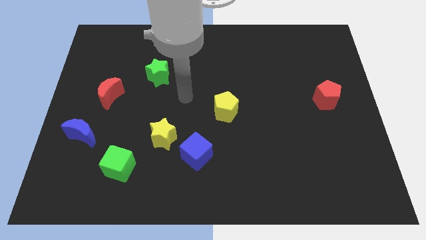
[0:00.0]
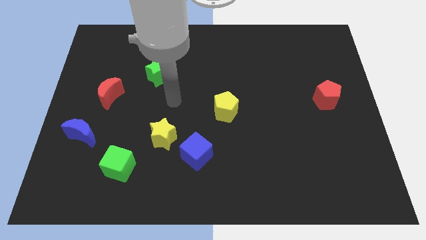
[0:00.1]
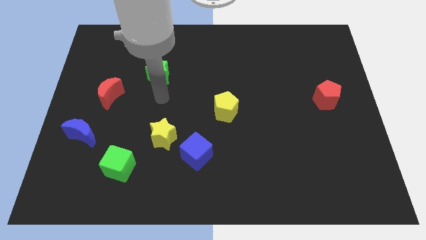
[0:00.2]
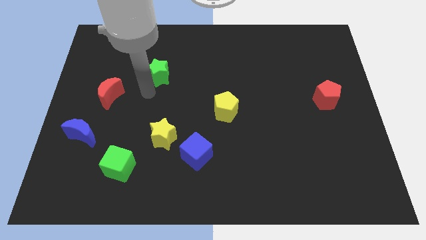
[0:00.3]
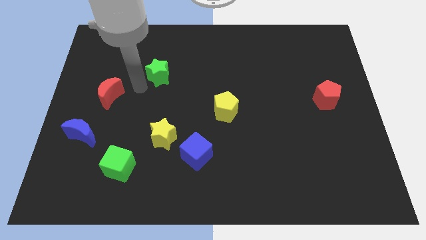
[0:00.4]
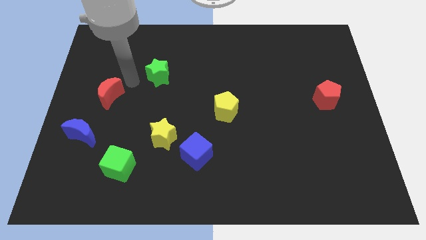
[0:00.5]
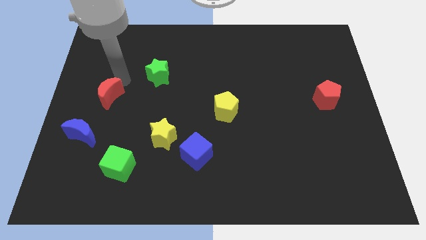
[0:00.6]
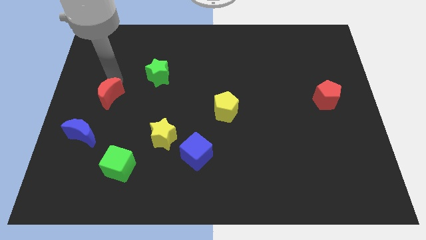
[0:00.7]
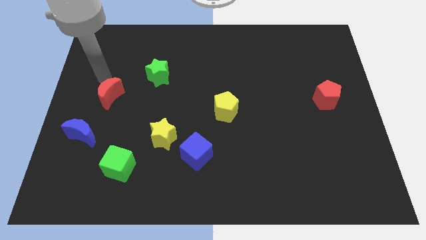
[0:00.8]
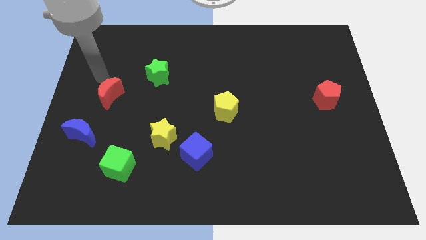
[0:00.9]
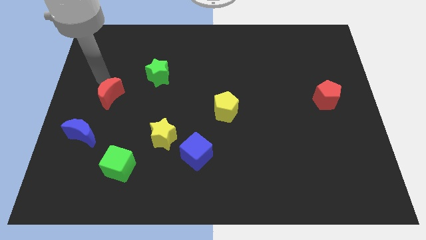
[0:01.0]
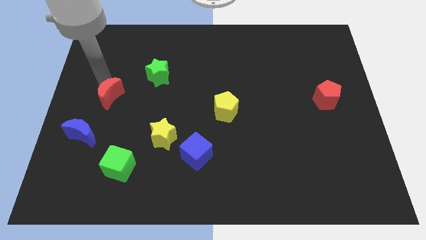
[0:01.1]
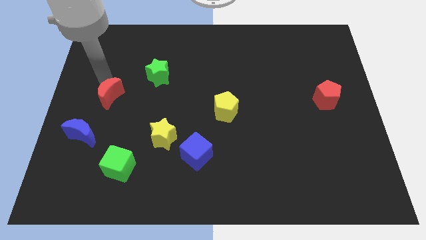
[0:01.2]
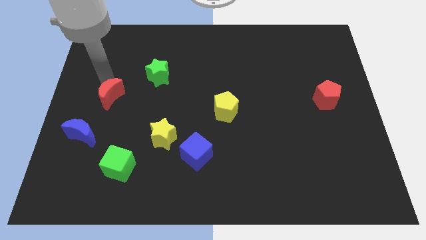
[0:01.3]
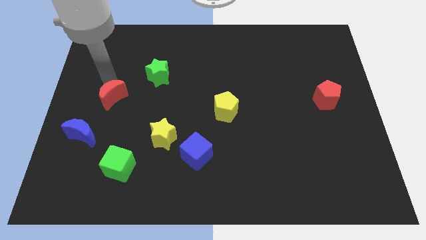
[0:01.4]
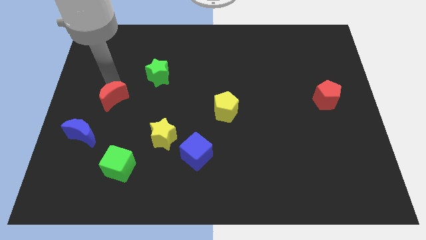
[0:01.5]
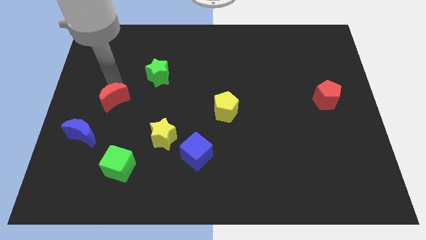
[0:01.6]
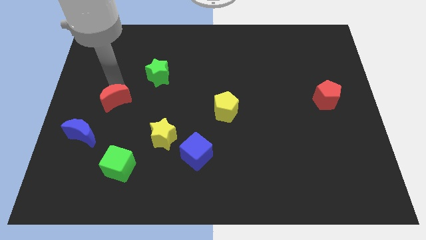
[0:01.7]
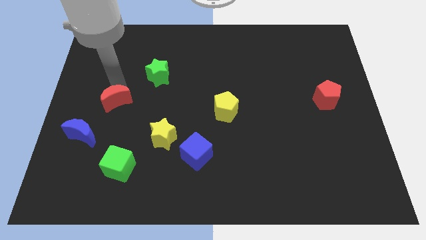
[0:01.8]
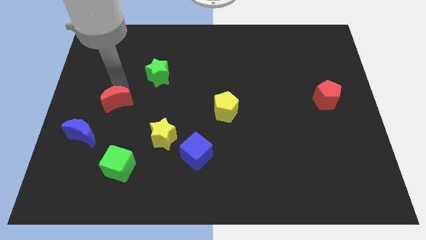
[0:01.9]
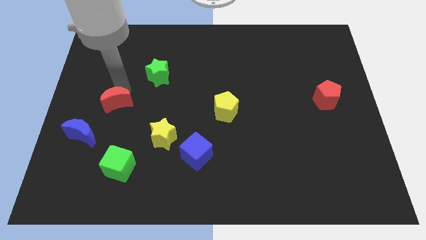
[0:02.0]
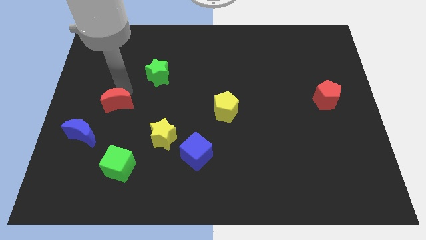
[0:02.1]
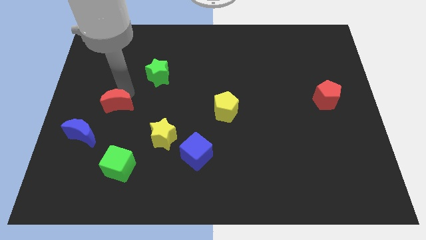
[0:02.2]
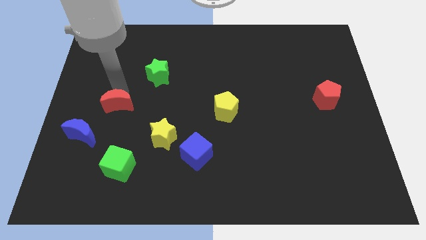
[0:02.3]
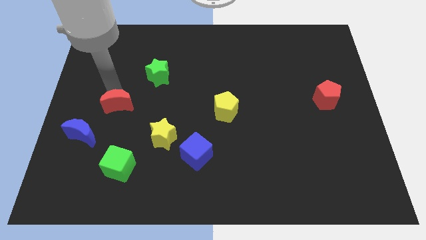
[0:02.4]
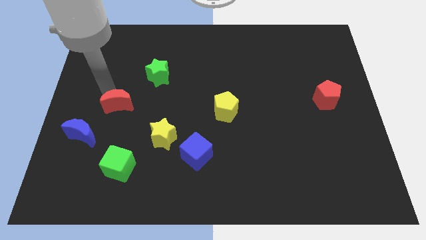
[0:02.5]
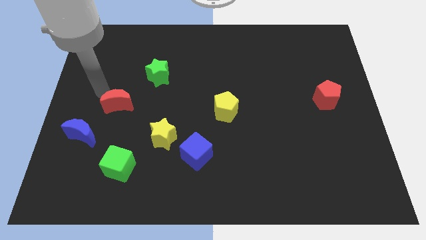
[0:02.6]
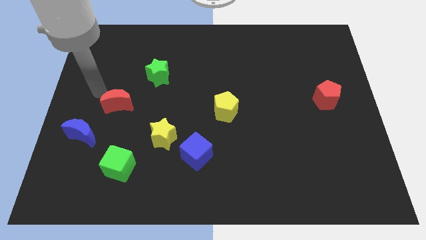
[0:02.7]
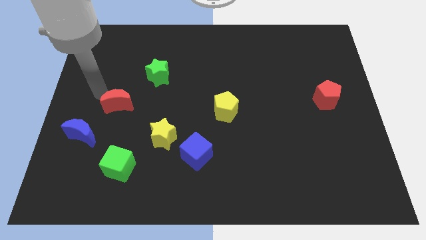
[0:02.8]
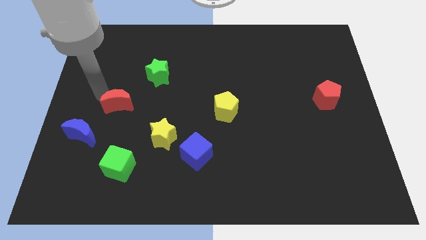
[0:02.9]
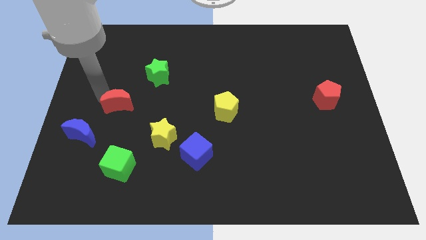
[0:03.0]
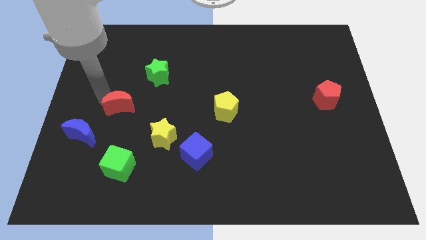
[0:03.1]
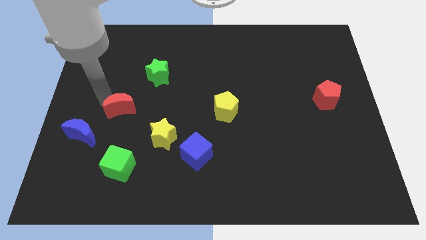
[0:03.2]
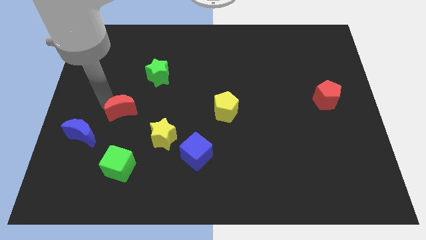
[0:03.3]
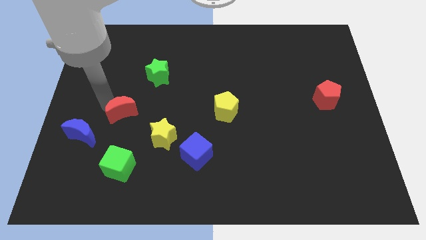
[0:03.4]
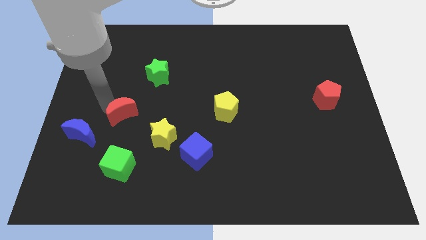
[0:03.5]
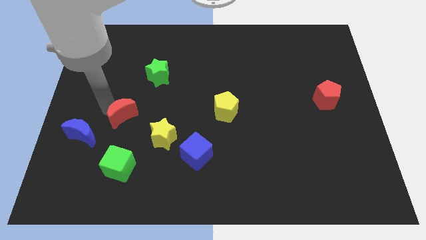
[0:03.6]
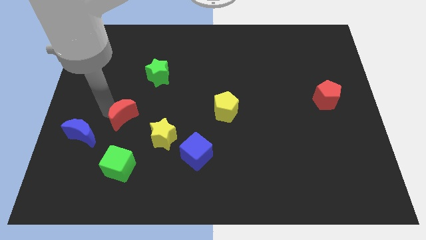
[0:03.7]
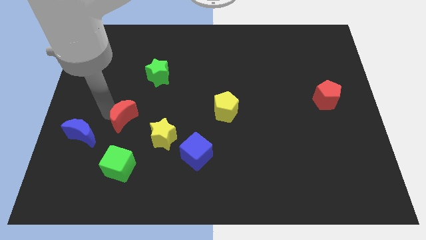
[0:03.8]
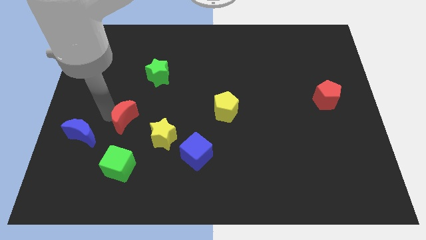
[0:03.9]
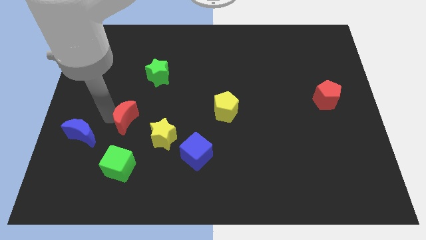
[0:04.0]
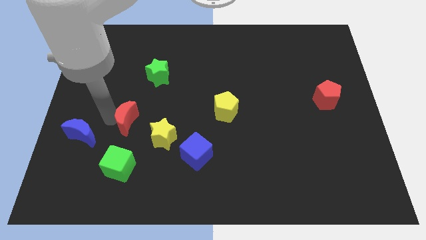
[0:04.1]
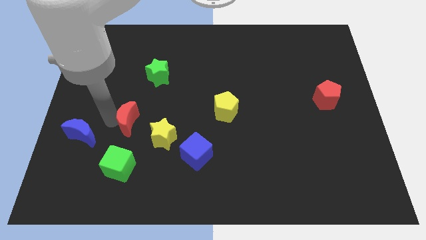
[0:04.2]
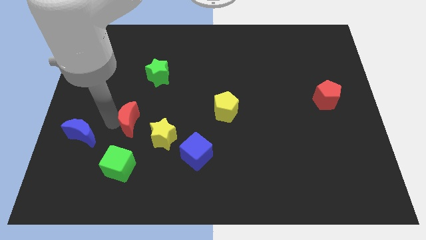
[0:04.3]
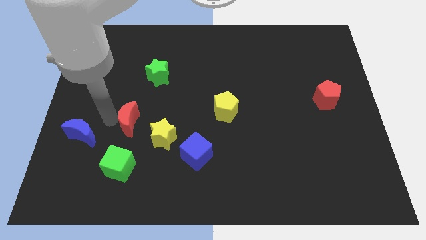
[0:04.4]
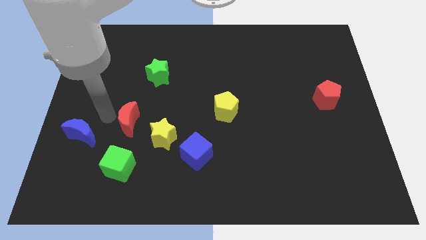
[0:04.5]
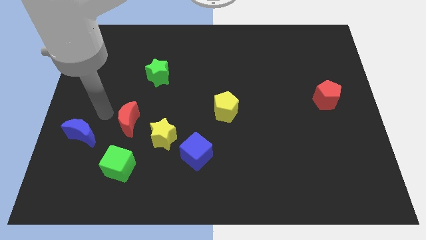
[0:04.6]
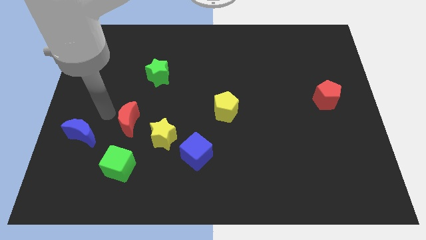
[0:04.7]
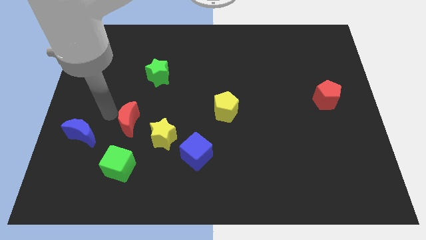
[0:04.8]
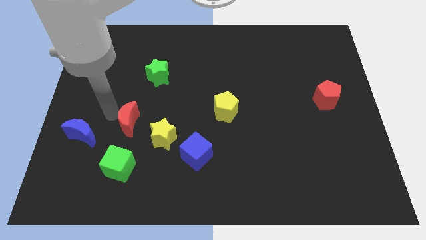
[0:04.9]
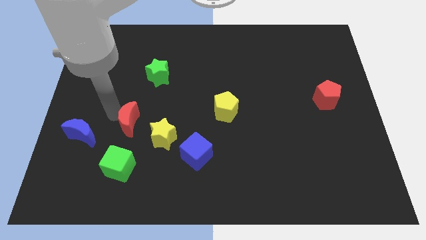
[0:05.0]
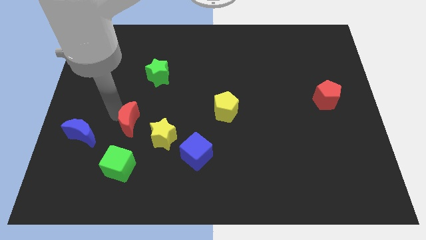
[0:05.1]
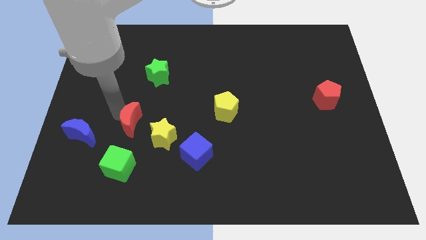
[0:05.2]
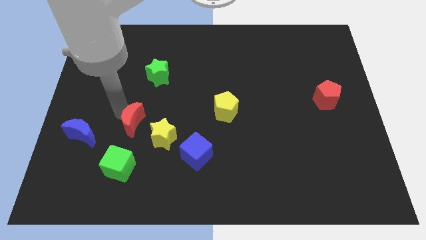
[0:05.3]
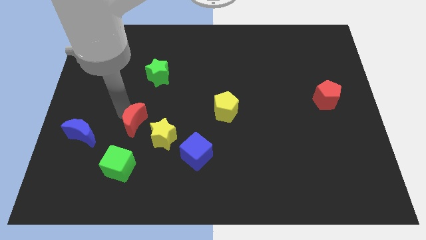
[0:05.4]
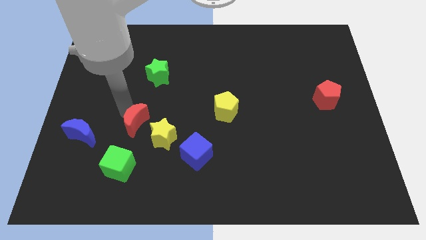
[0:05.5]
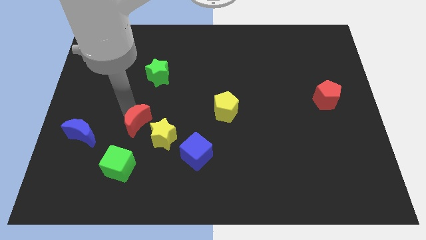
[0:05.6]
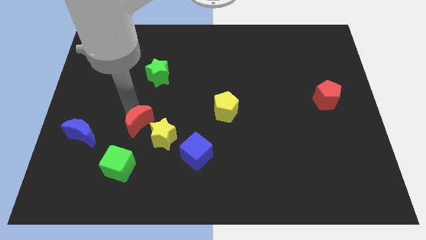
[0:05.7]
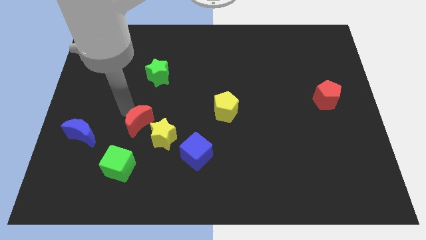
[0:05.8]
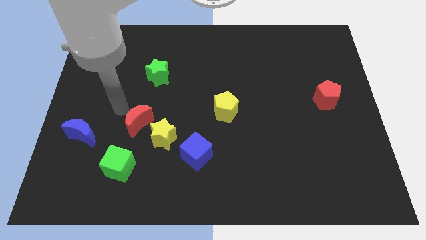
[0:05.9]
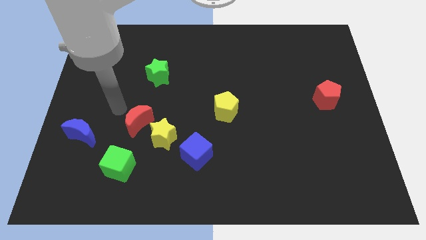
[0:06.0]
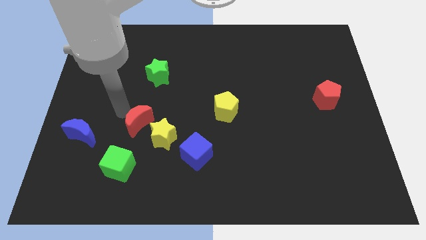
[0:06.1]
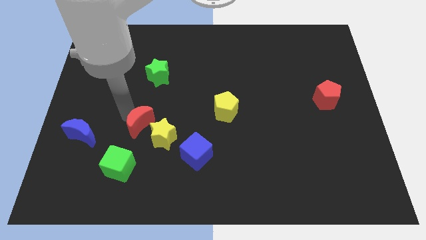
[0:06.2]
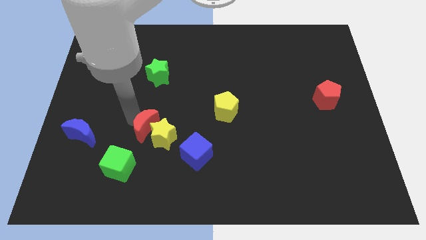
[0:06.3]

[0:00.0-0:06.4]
put the red moon towards the yellow star

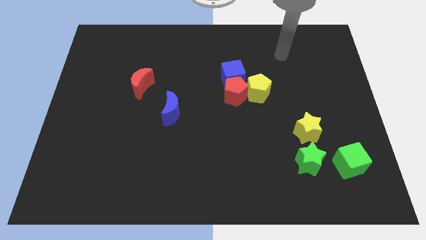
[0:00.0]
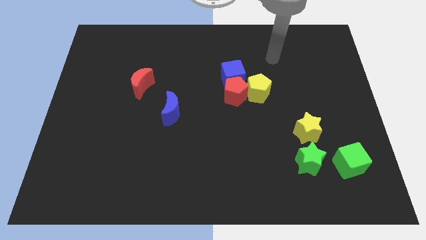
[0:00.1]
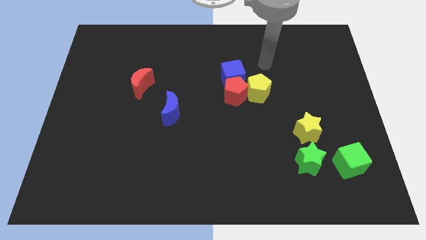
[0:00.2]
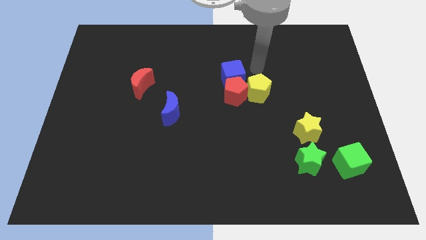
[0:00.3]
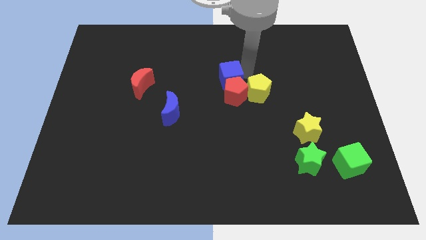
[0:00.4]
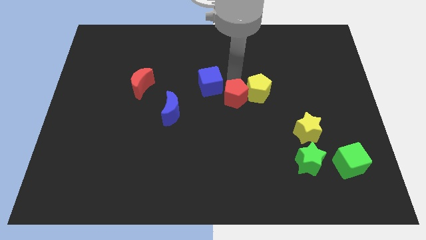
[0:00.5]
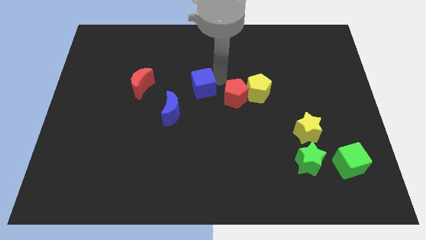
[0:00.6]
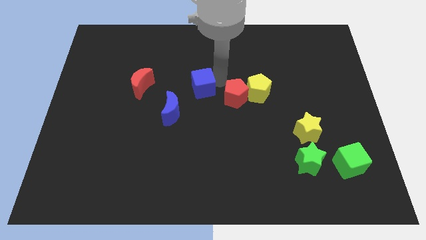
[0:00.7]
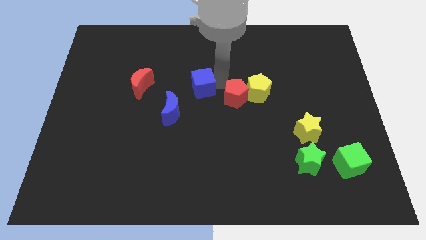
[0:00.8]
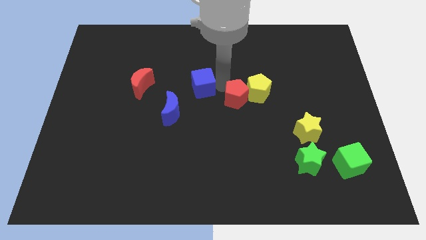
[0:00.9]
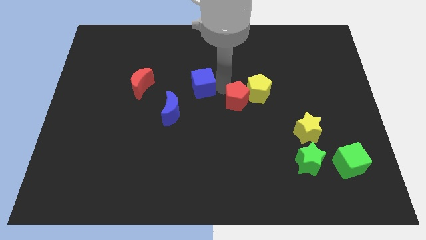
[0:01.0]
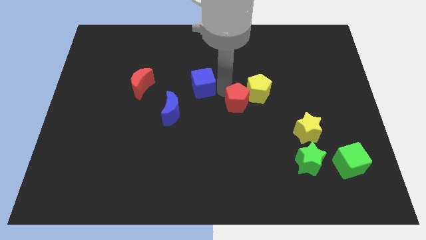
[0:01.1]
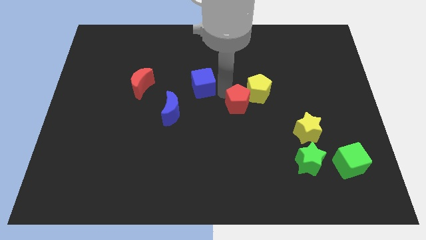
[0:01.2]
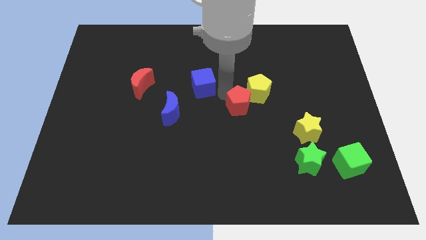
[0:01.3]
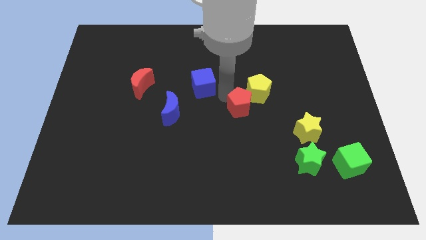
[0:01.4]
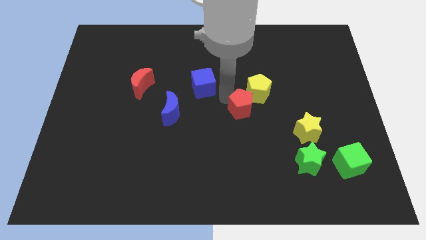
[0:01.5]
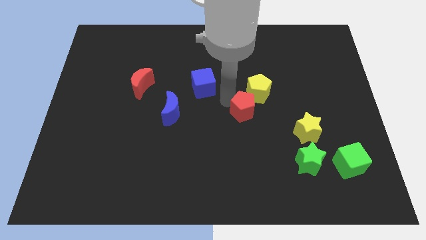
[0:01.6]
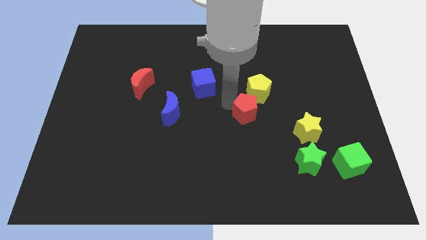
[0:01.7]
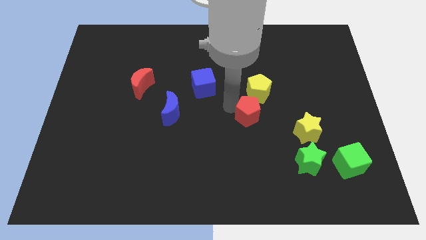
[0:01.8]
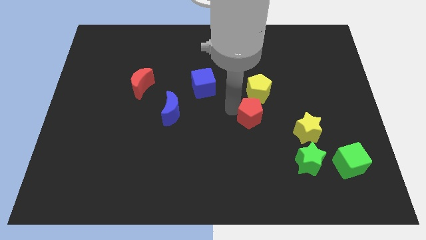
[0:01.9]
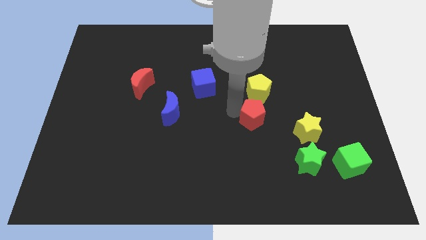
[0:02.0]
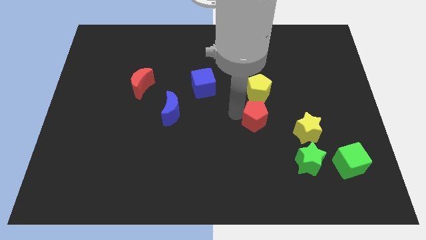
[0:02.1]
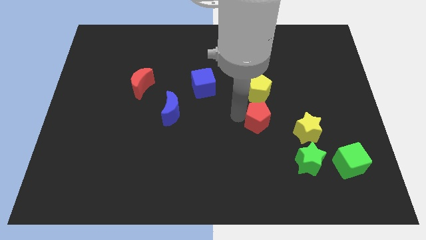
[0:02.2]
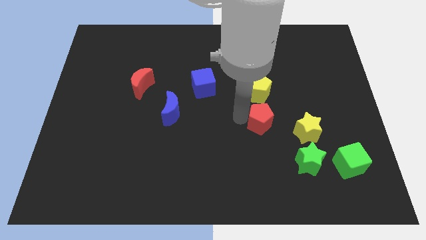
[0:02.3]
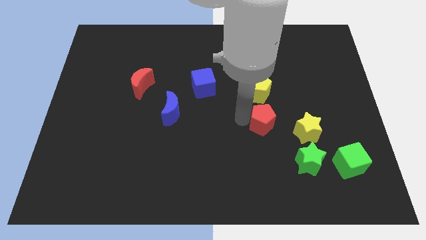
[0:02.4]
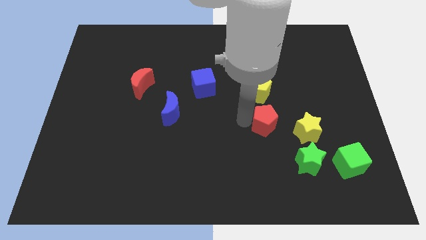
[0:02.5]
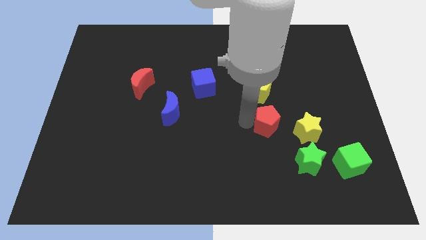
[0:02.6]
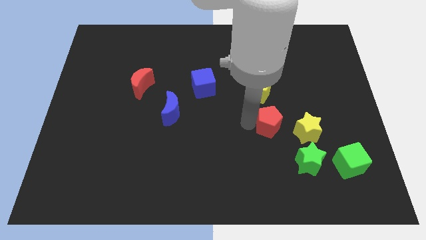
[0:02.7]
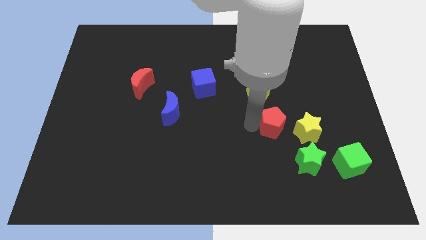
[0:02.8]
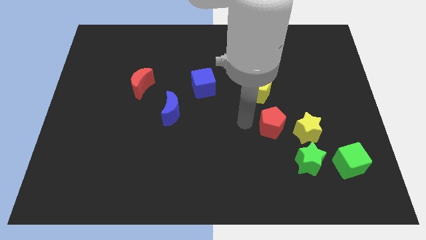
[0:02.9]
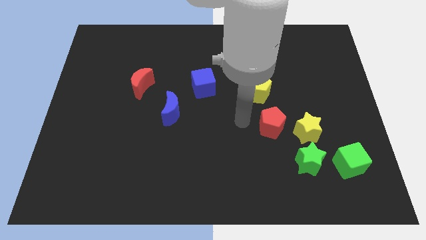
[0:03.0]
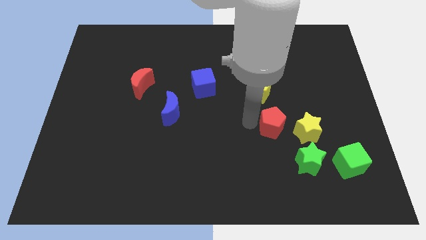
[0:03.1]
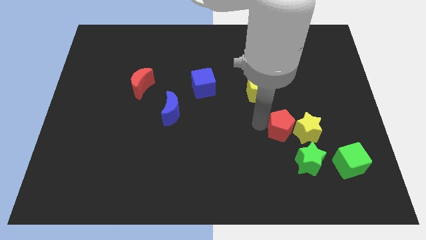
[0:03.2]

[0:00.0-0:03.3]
put the red pentagon next to the yellow star
